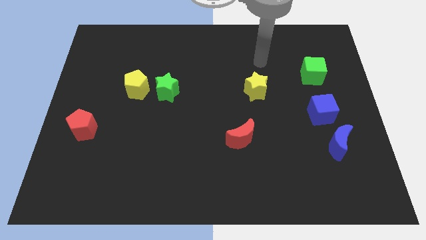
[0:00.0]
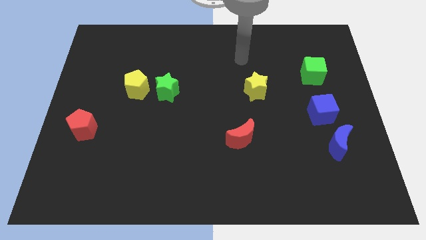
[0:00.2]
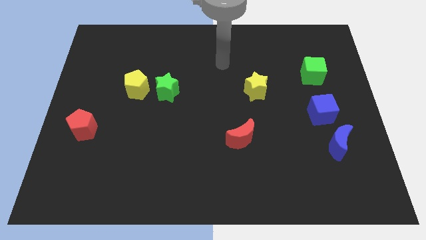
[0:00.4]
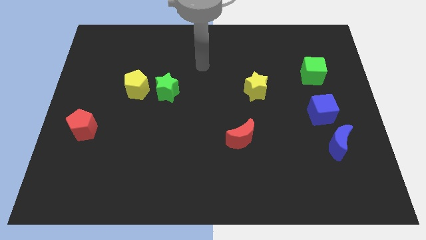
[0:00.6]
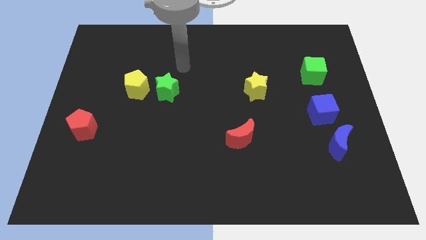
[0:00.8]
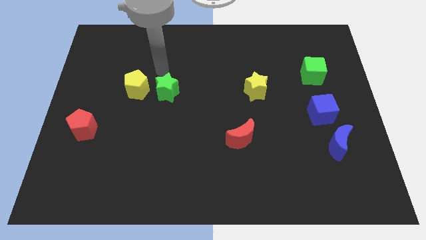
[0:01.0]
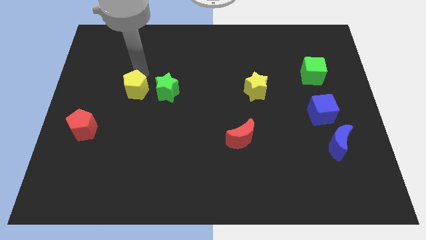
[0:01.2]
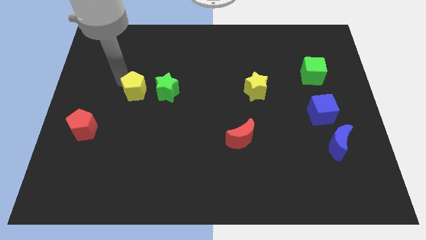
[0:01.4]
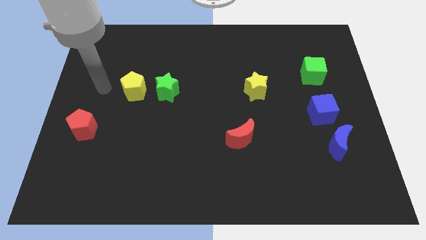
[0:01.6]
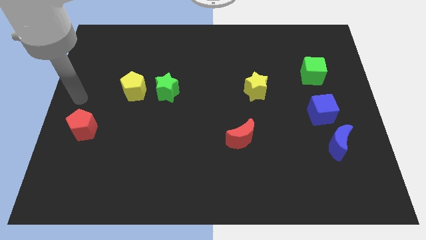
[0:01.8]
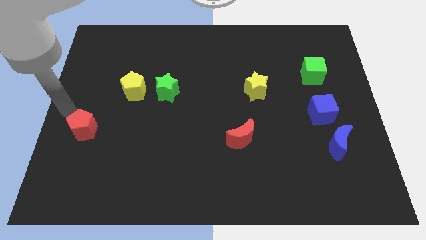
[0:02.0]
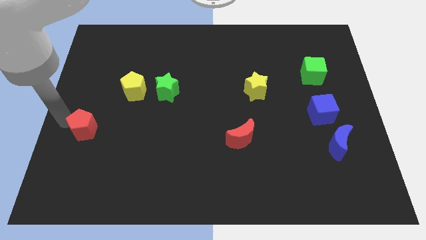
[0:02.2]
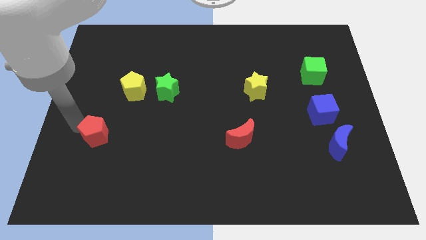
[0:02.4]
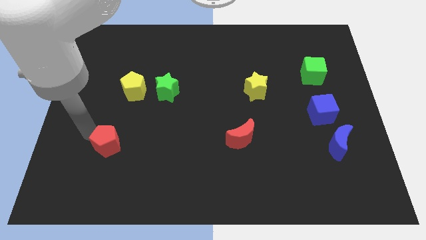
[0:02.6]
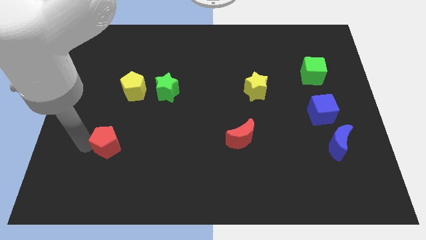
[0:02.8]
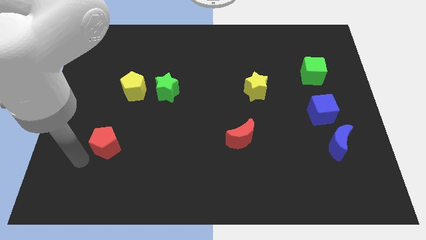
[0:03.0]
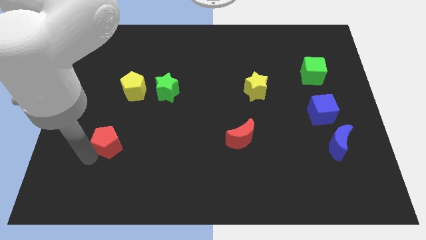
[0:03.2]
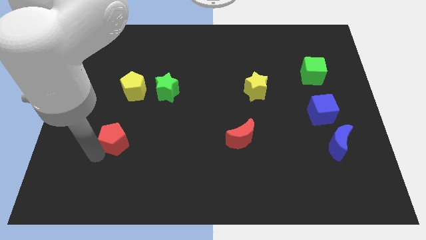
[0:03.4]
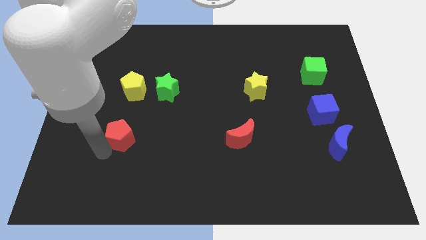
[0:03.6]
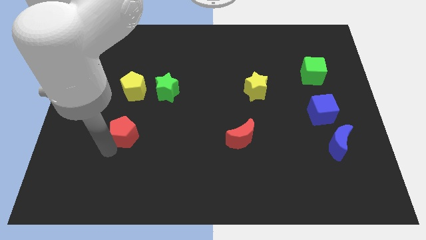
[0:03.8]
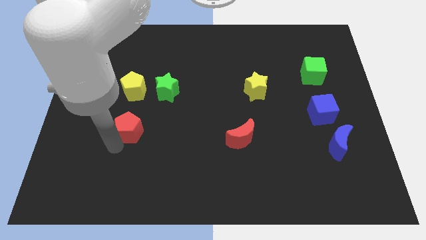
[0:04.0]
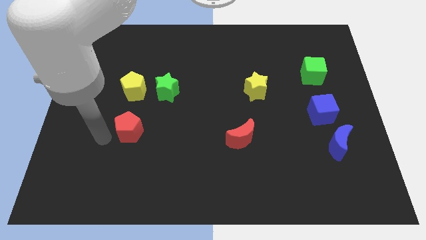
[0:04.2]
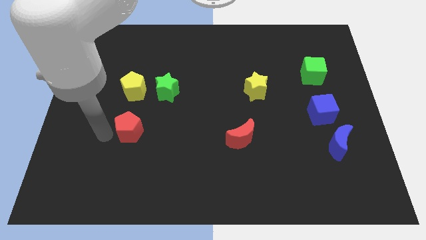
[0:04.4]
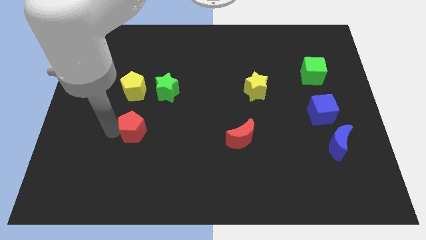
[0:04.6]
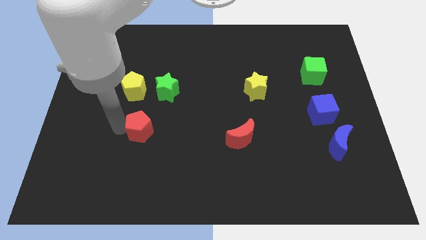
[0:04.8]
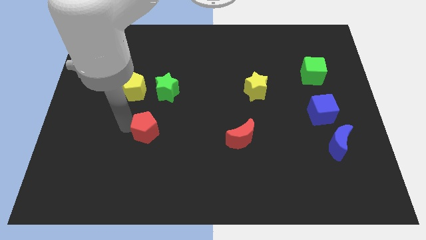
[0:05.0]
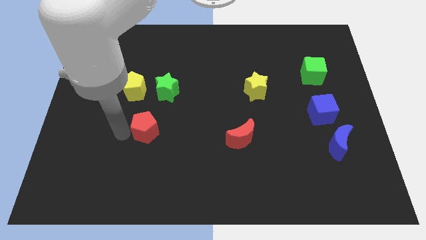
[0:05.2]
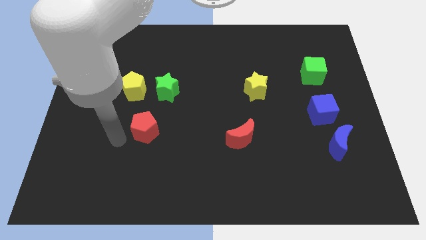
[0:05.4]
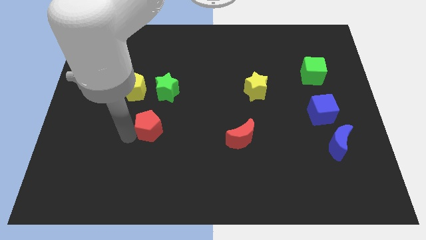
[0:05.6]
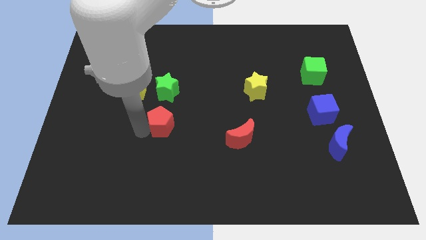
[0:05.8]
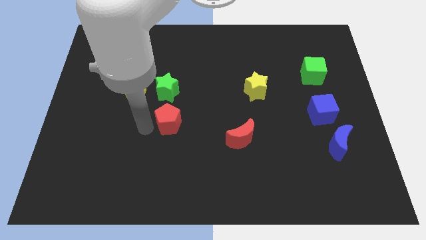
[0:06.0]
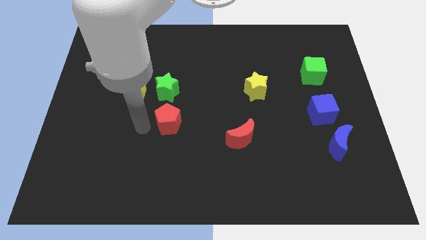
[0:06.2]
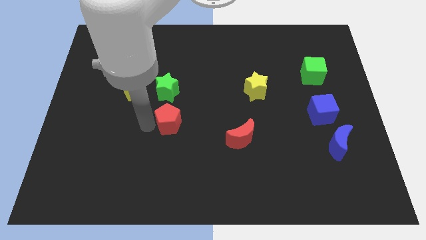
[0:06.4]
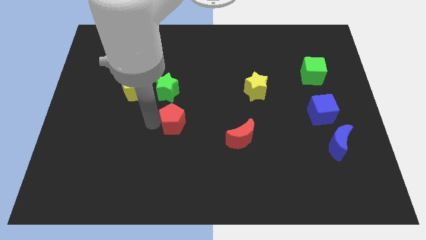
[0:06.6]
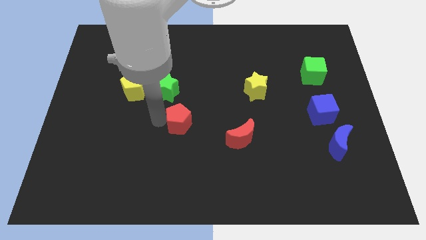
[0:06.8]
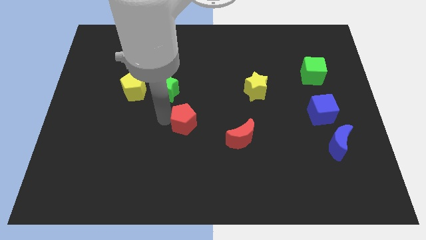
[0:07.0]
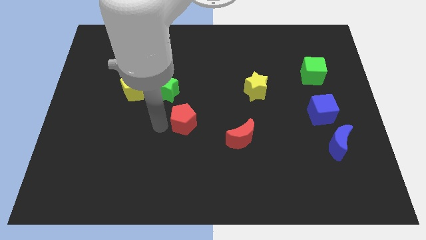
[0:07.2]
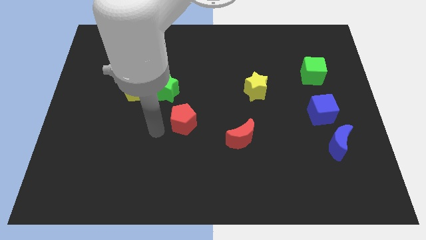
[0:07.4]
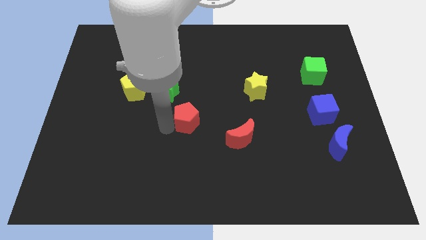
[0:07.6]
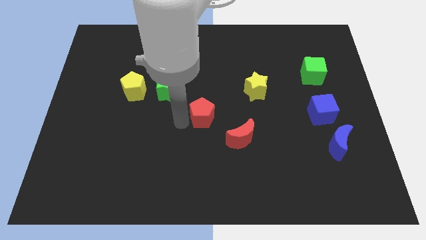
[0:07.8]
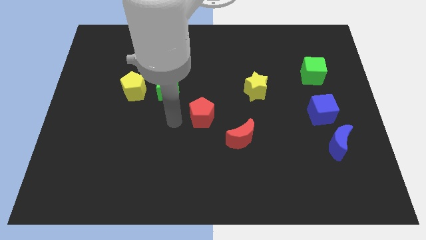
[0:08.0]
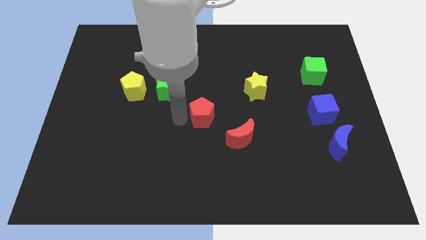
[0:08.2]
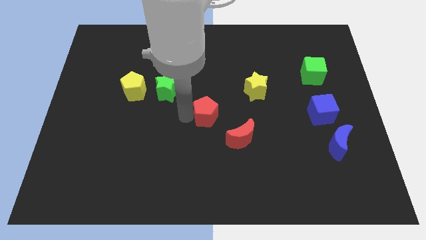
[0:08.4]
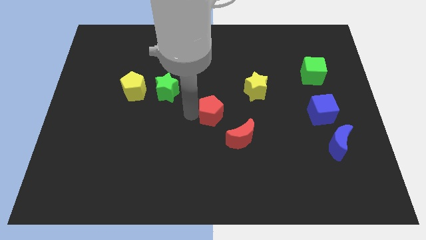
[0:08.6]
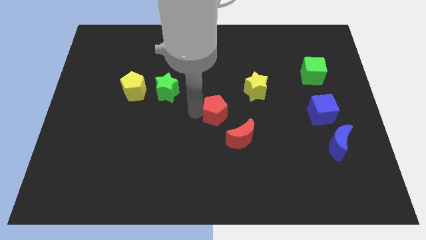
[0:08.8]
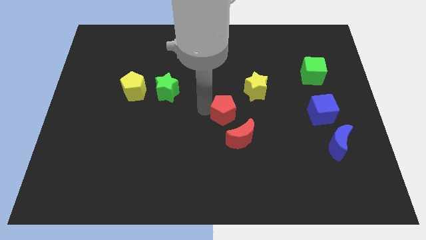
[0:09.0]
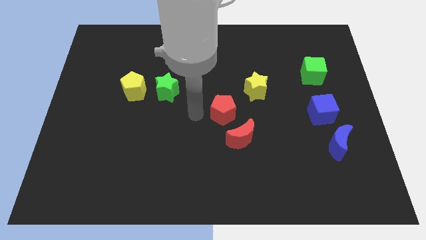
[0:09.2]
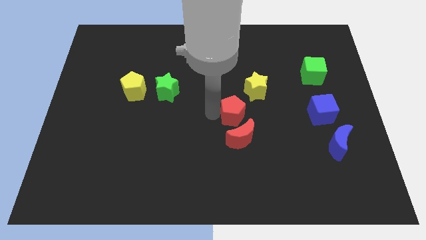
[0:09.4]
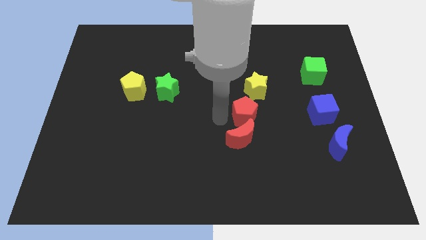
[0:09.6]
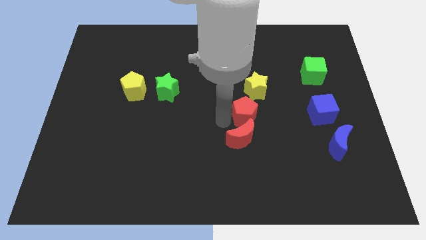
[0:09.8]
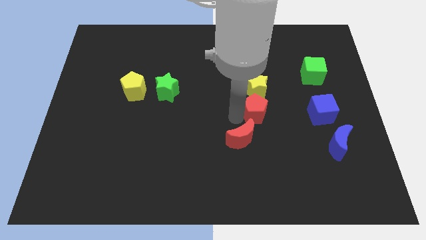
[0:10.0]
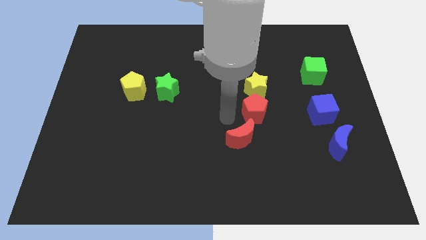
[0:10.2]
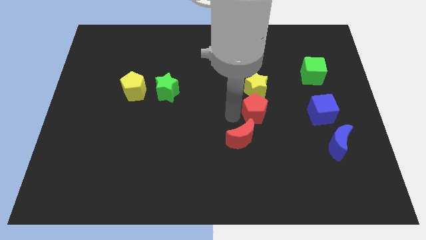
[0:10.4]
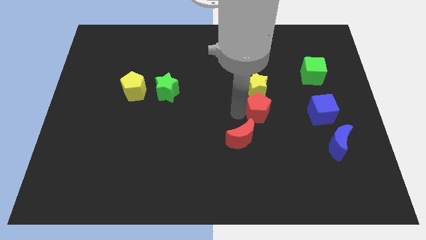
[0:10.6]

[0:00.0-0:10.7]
put the red pentagon diagonally down and to the right of the yellow star
